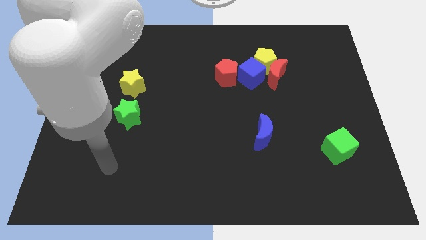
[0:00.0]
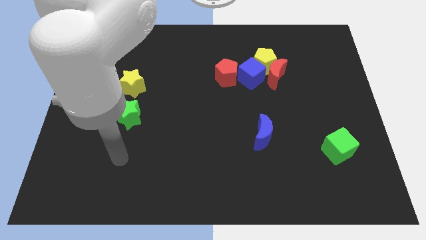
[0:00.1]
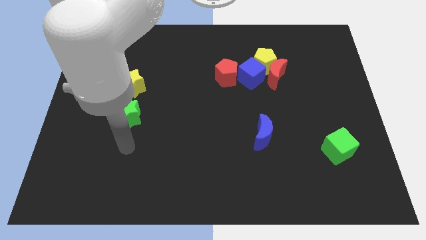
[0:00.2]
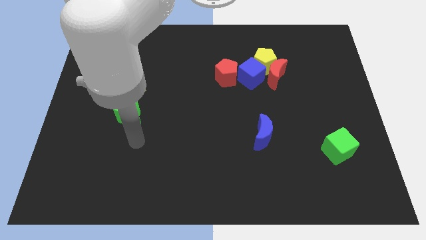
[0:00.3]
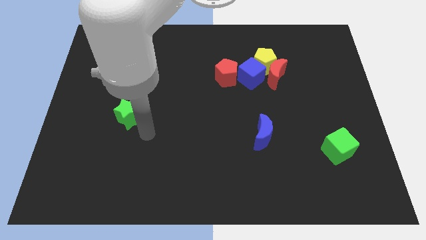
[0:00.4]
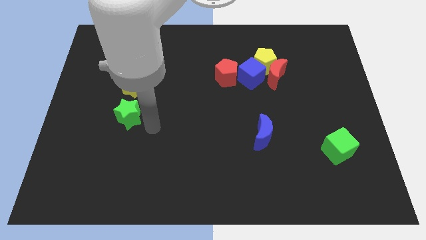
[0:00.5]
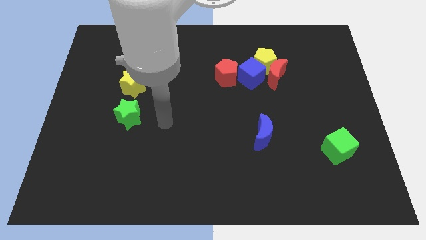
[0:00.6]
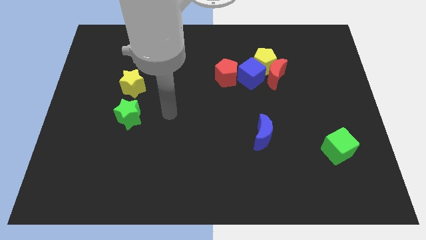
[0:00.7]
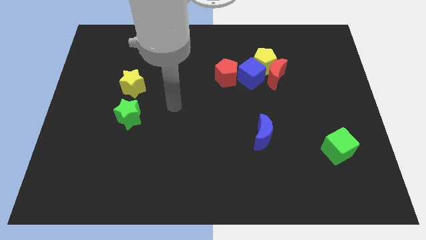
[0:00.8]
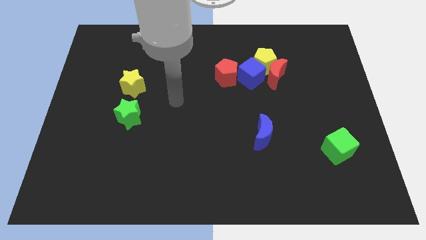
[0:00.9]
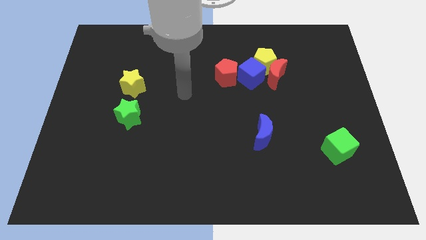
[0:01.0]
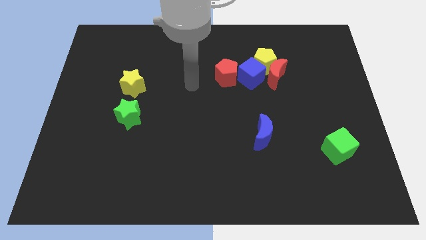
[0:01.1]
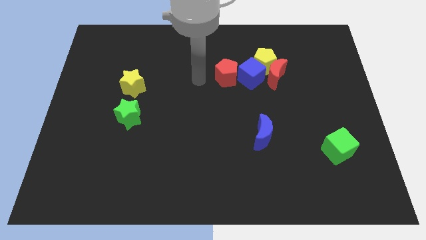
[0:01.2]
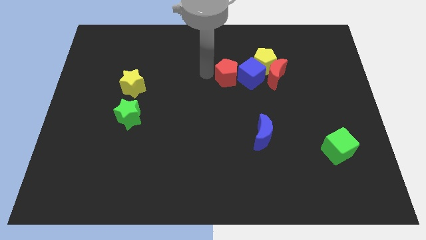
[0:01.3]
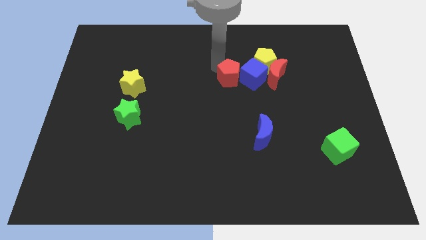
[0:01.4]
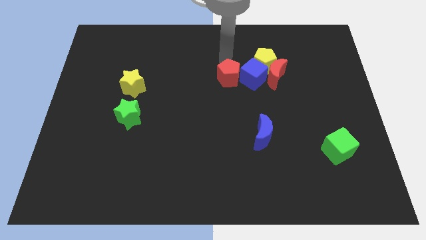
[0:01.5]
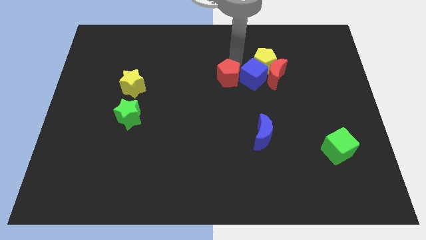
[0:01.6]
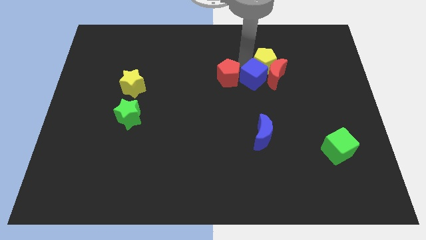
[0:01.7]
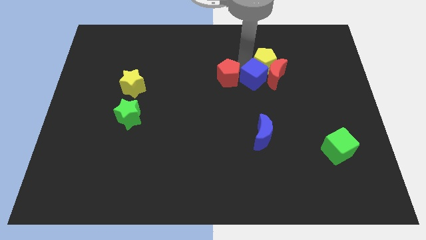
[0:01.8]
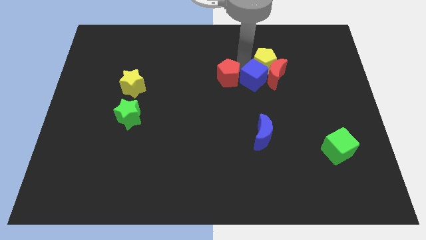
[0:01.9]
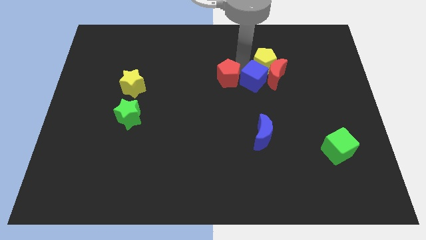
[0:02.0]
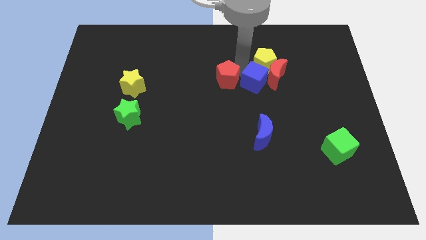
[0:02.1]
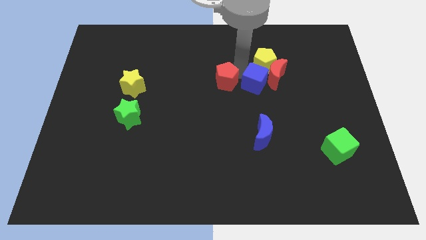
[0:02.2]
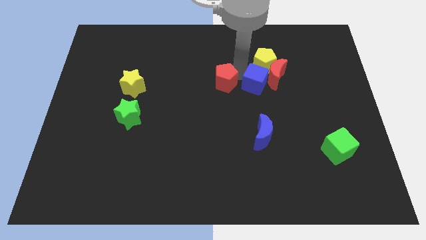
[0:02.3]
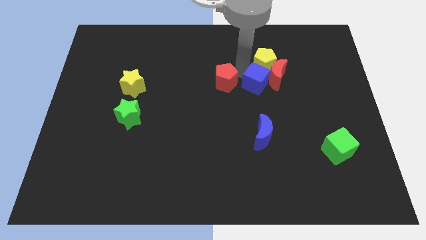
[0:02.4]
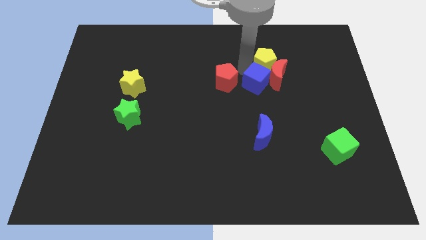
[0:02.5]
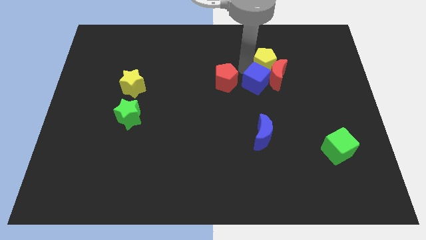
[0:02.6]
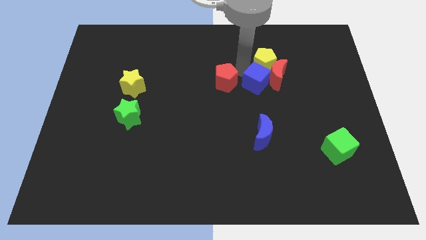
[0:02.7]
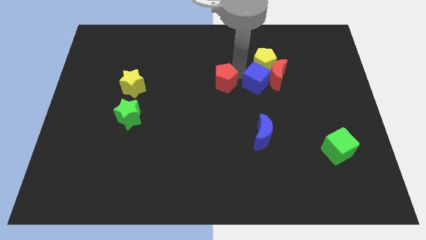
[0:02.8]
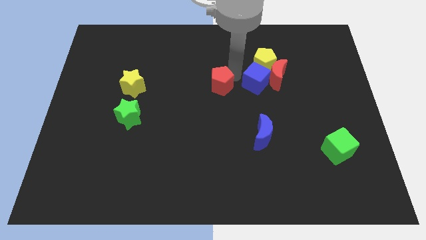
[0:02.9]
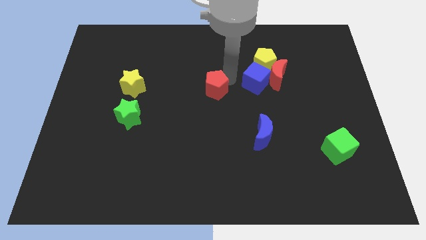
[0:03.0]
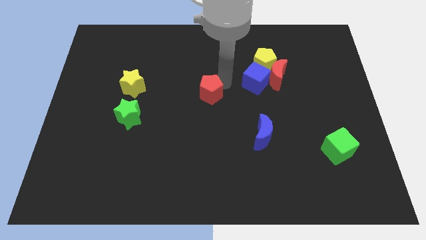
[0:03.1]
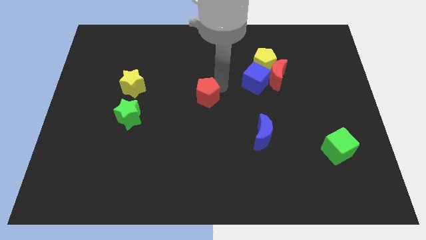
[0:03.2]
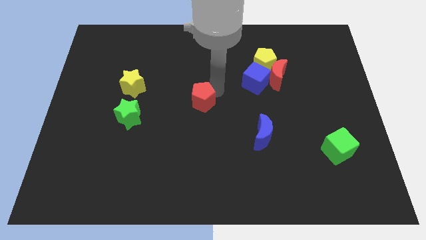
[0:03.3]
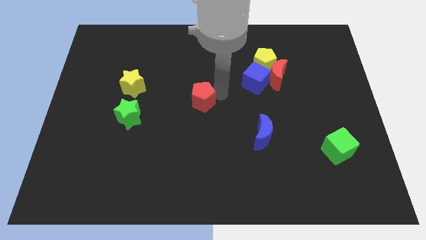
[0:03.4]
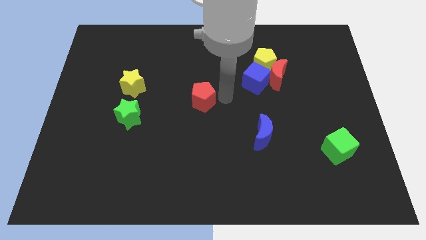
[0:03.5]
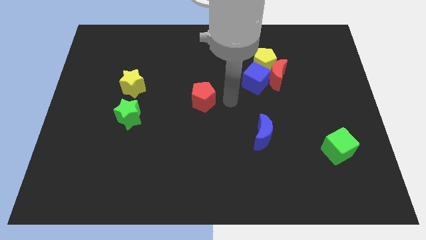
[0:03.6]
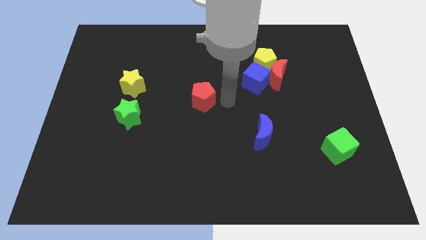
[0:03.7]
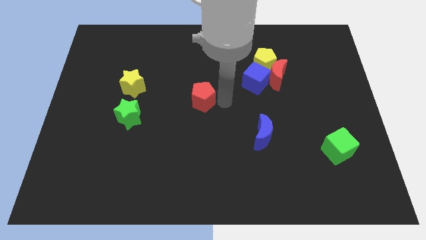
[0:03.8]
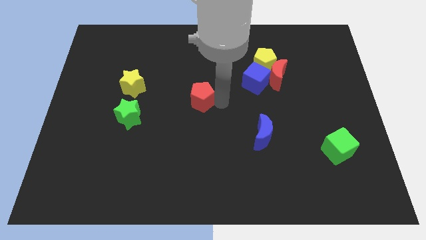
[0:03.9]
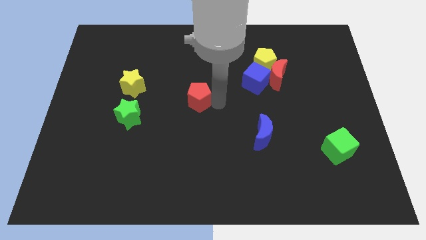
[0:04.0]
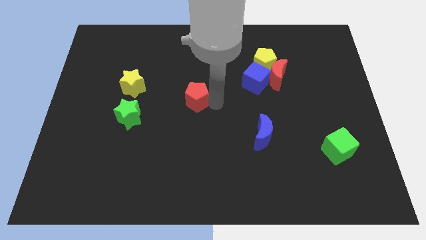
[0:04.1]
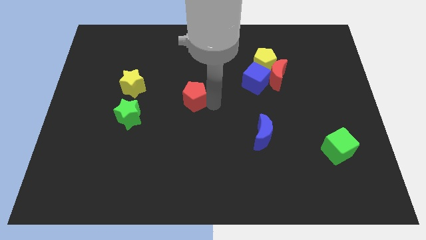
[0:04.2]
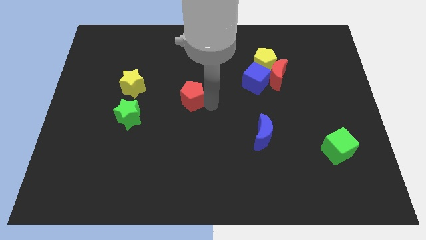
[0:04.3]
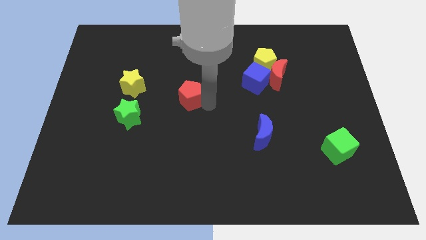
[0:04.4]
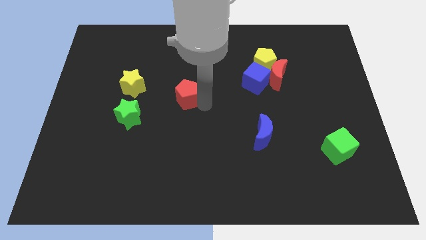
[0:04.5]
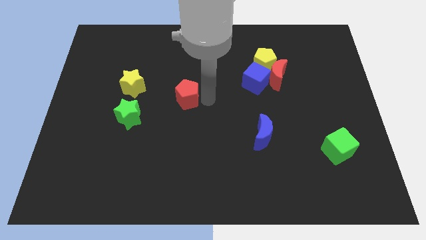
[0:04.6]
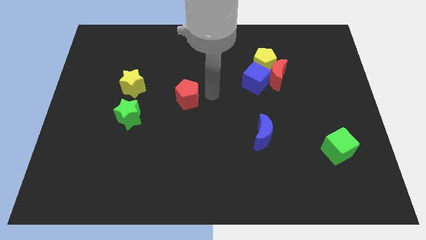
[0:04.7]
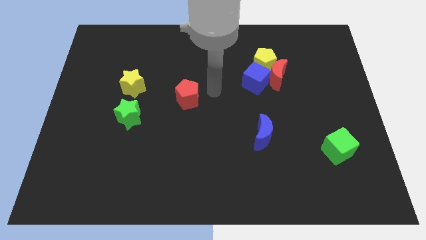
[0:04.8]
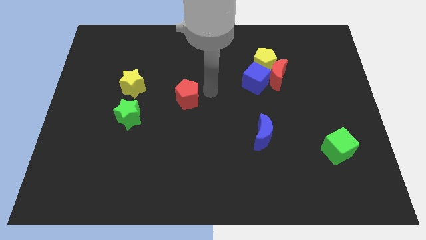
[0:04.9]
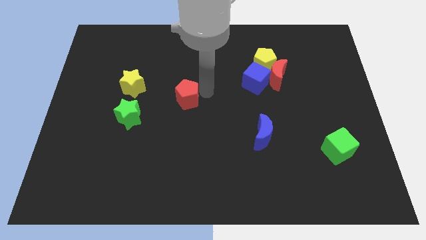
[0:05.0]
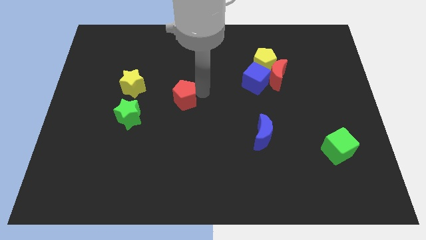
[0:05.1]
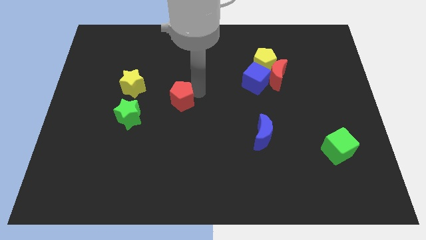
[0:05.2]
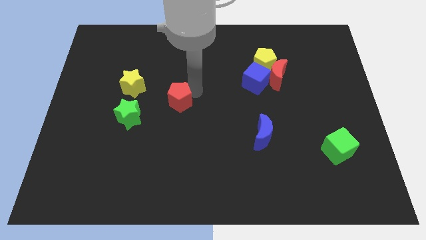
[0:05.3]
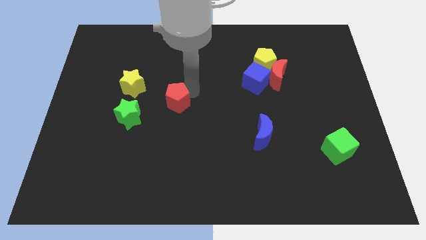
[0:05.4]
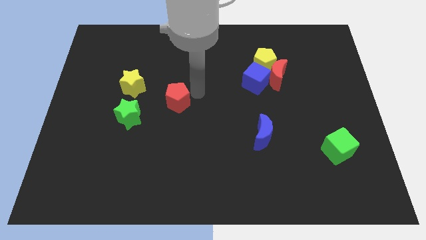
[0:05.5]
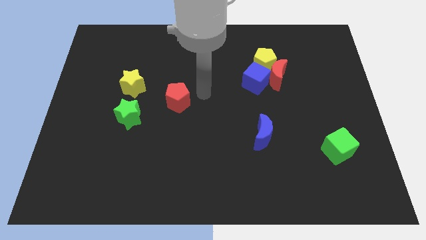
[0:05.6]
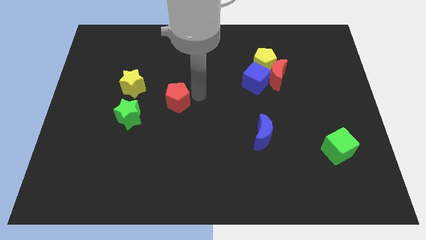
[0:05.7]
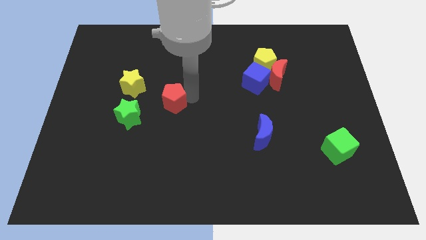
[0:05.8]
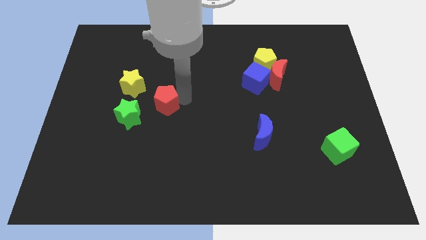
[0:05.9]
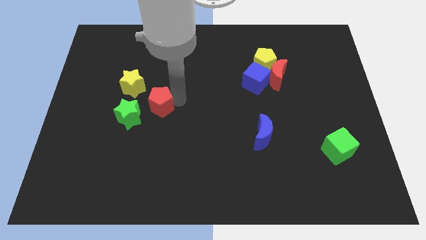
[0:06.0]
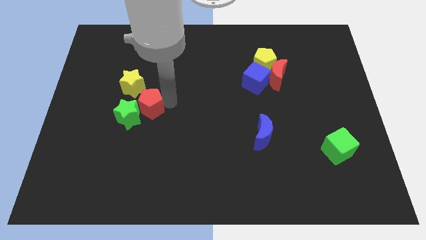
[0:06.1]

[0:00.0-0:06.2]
slide the red pentagon next to the green star
